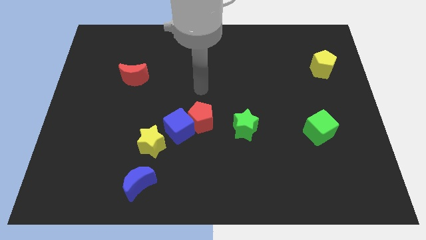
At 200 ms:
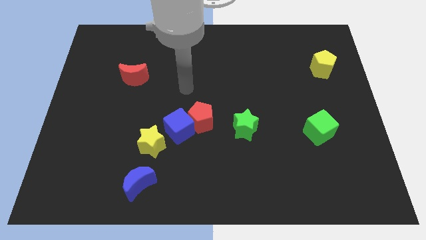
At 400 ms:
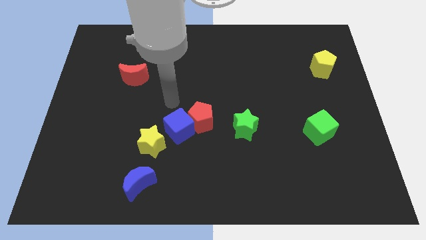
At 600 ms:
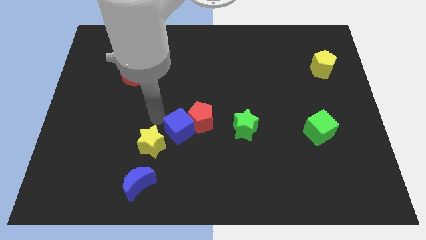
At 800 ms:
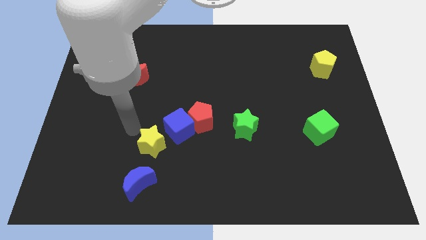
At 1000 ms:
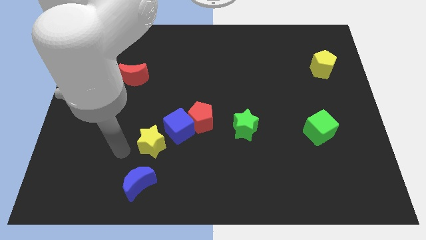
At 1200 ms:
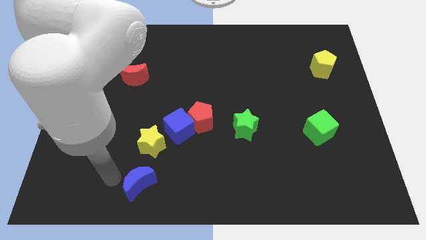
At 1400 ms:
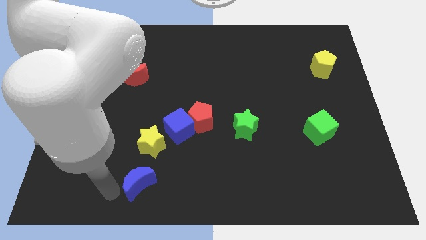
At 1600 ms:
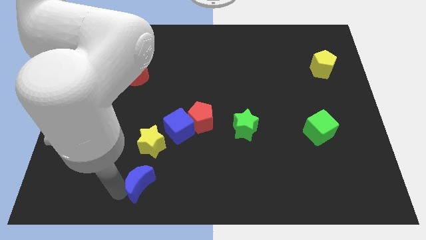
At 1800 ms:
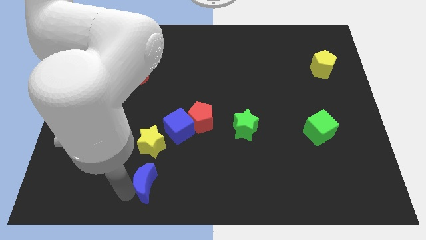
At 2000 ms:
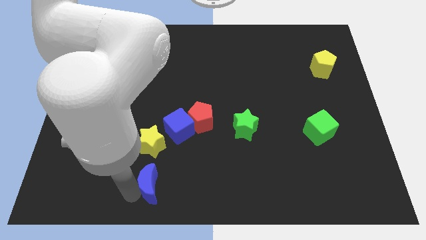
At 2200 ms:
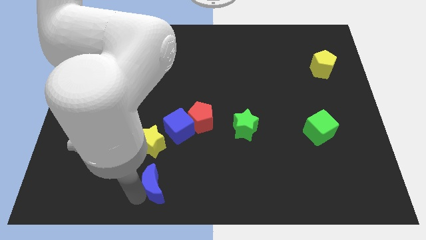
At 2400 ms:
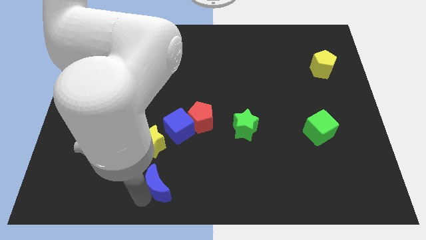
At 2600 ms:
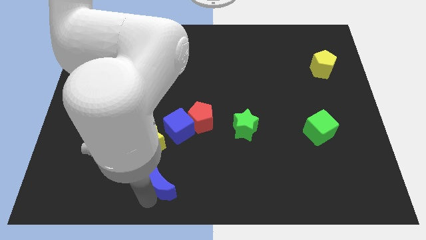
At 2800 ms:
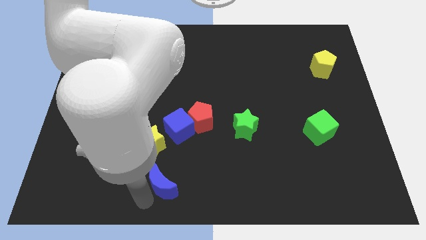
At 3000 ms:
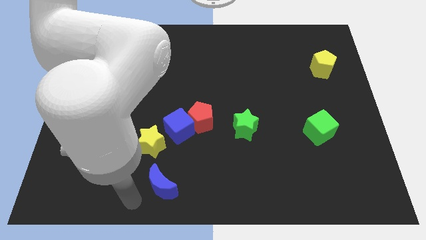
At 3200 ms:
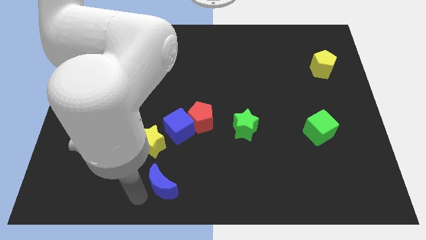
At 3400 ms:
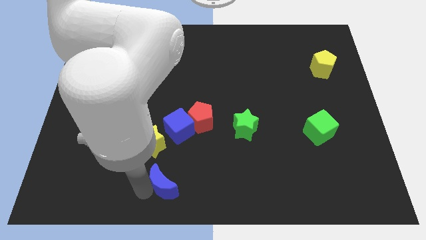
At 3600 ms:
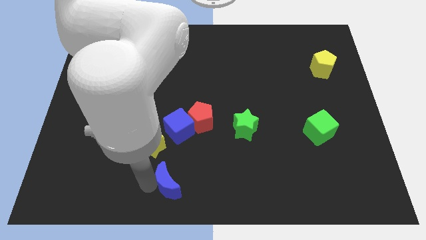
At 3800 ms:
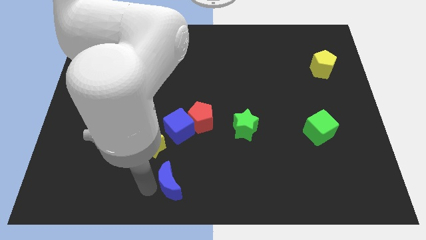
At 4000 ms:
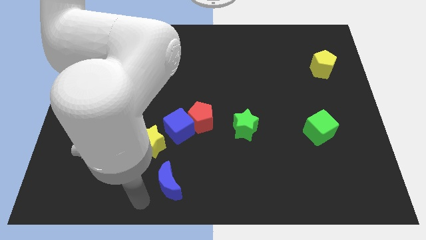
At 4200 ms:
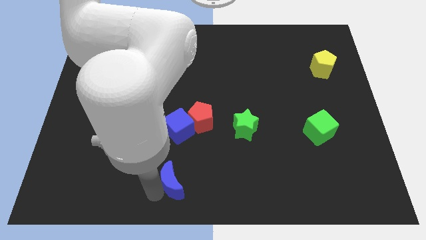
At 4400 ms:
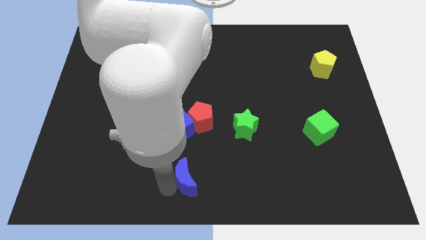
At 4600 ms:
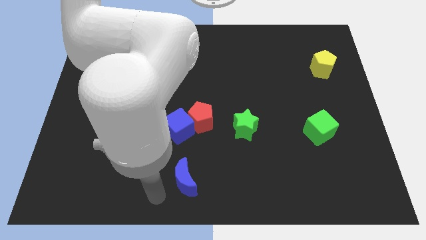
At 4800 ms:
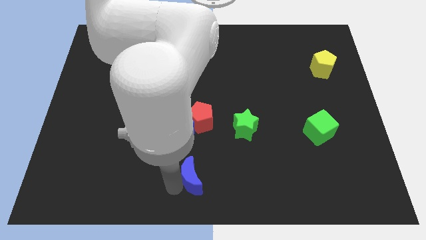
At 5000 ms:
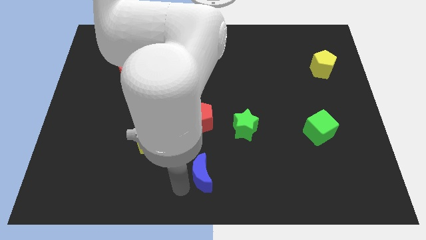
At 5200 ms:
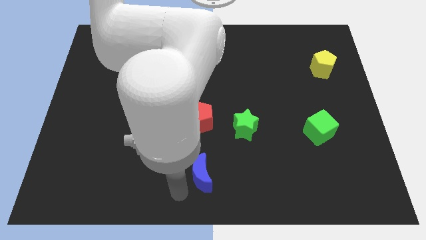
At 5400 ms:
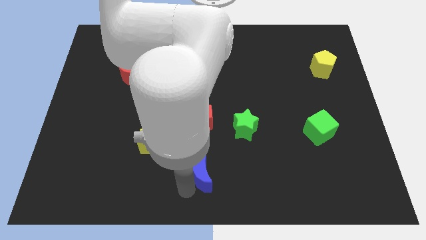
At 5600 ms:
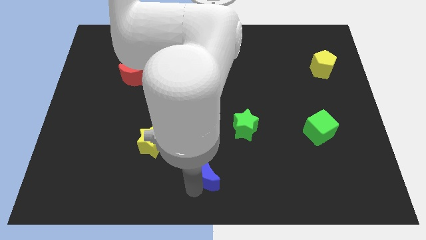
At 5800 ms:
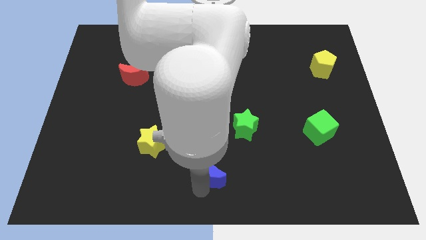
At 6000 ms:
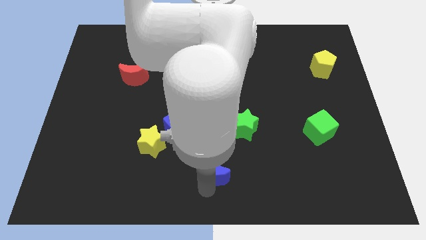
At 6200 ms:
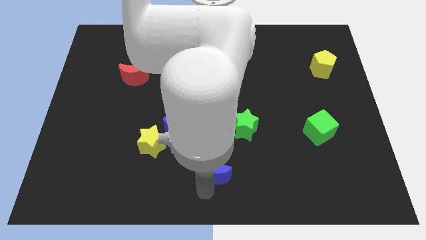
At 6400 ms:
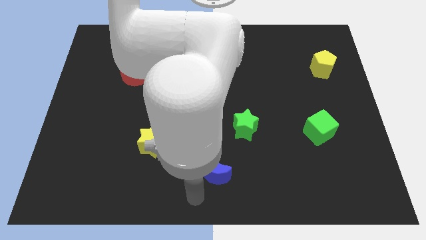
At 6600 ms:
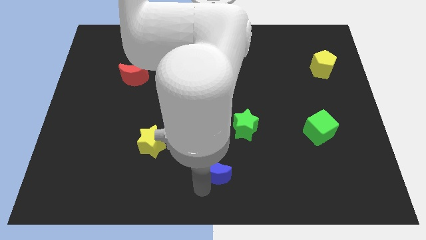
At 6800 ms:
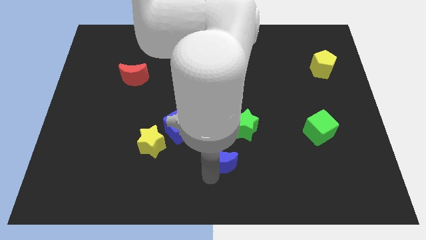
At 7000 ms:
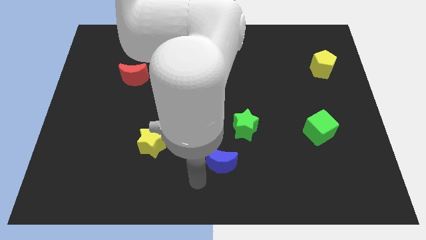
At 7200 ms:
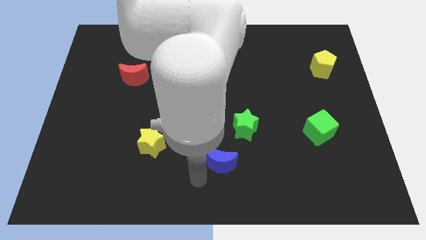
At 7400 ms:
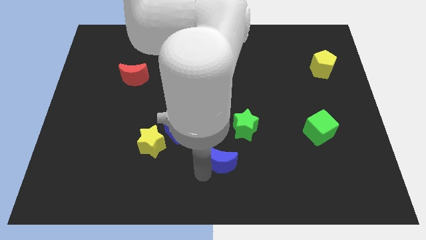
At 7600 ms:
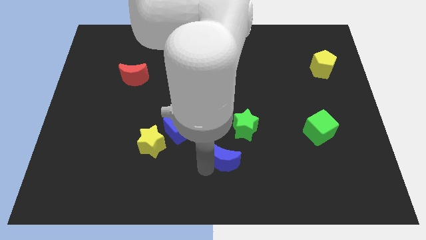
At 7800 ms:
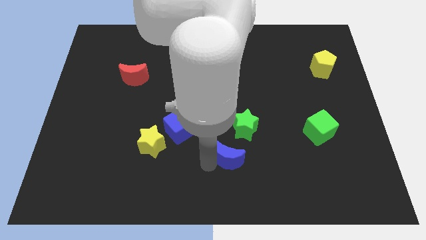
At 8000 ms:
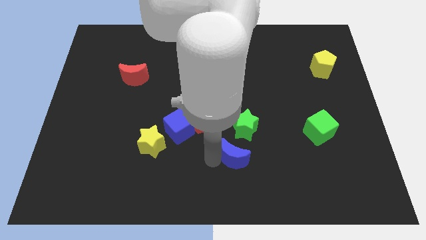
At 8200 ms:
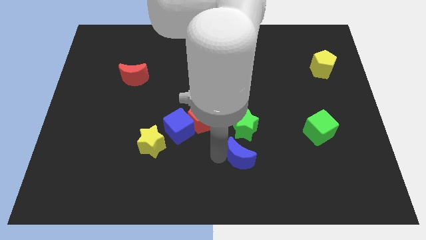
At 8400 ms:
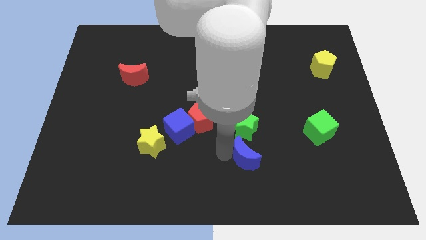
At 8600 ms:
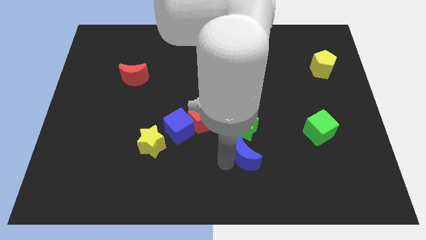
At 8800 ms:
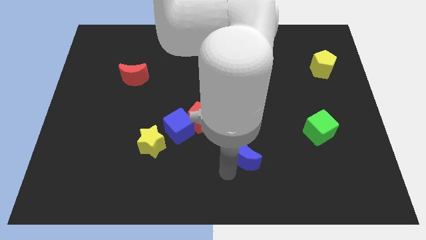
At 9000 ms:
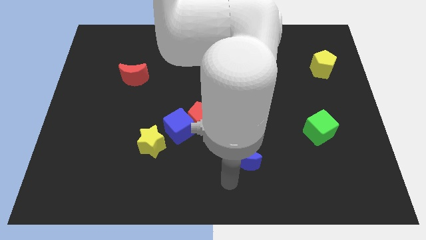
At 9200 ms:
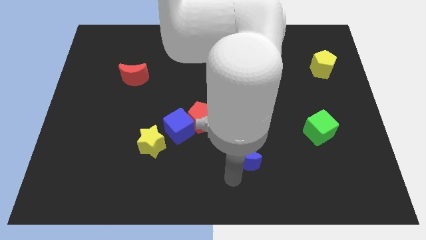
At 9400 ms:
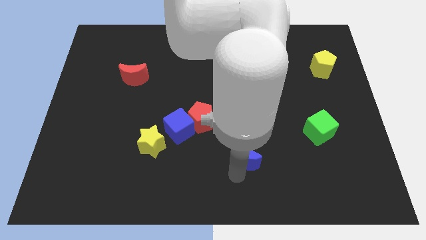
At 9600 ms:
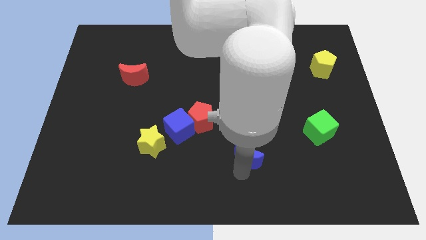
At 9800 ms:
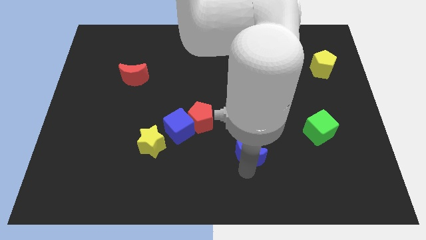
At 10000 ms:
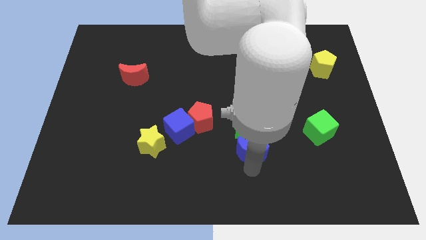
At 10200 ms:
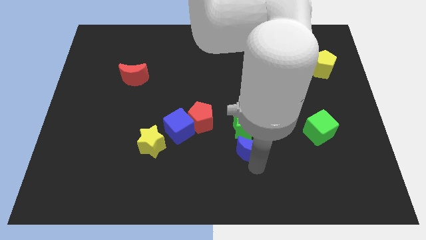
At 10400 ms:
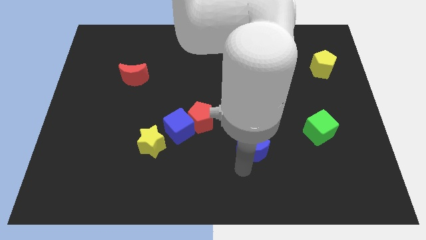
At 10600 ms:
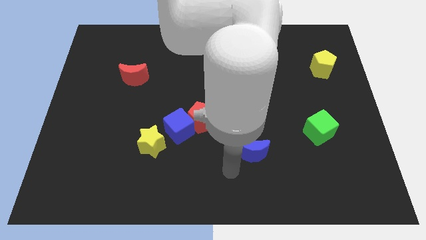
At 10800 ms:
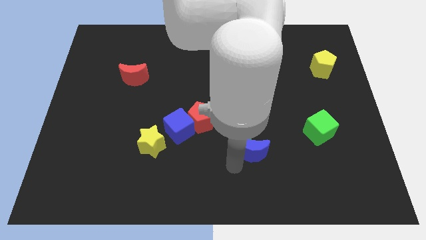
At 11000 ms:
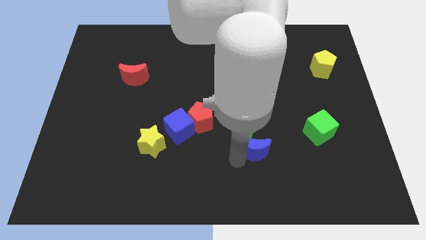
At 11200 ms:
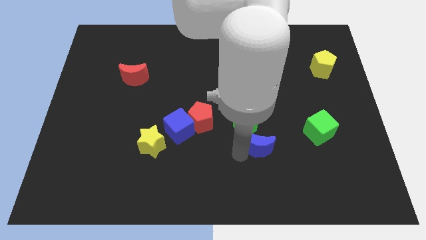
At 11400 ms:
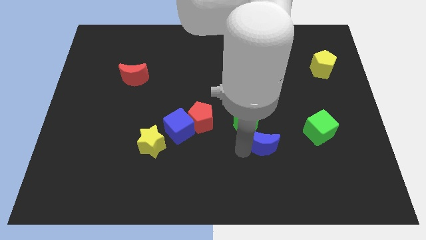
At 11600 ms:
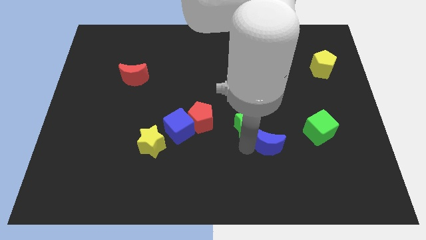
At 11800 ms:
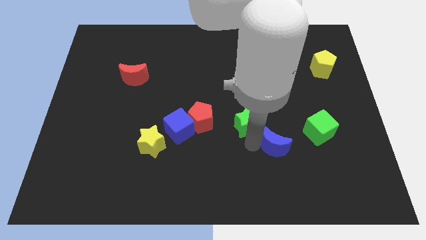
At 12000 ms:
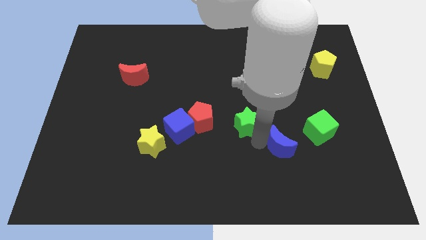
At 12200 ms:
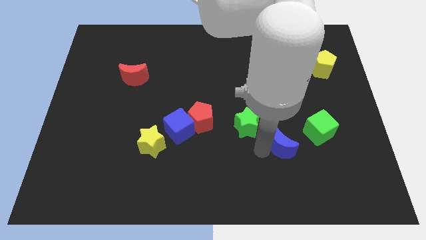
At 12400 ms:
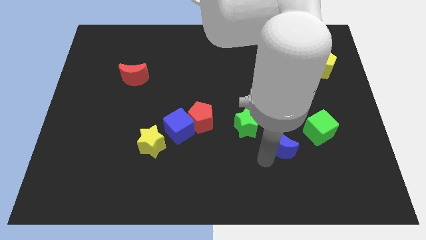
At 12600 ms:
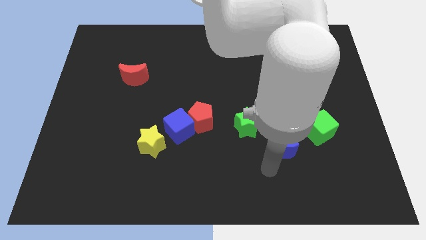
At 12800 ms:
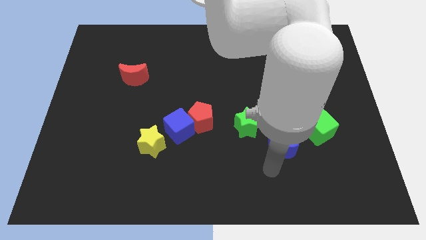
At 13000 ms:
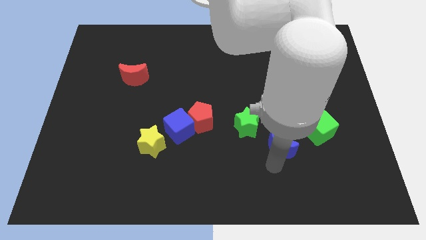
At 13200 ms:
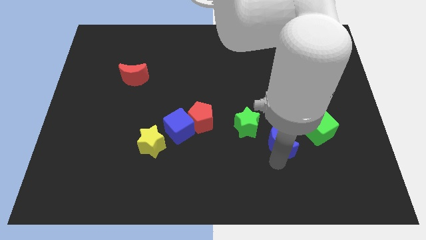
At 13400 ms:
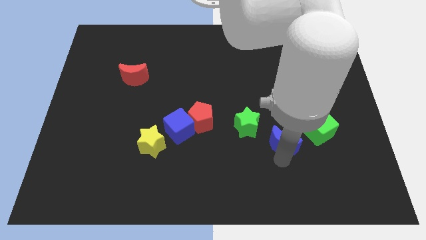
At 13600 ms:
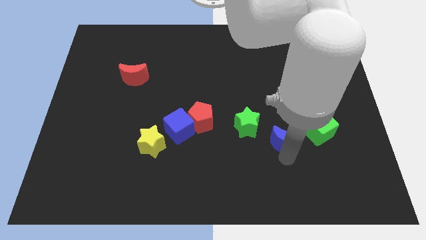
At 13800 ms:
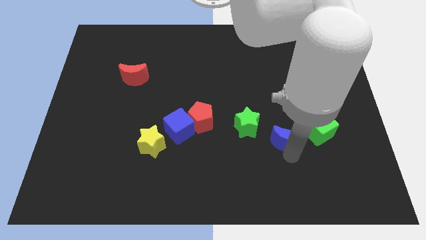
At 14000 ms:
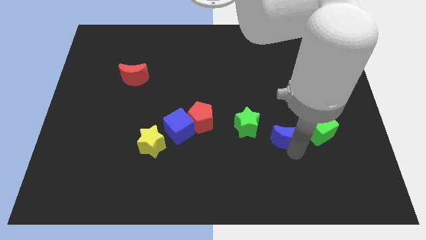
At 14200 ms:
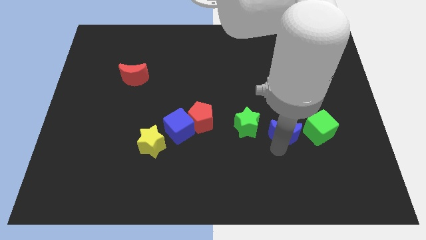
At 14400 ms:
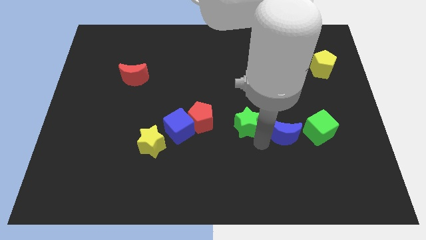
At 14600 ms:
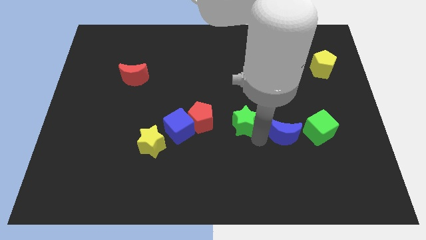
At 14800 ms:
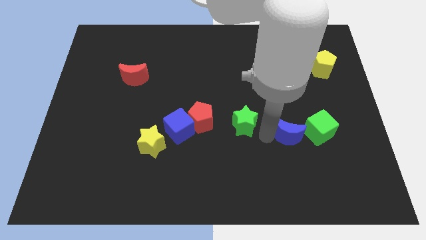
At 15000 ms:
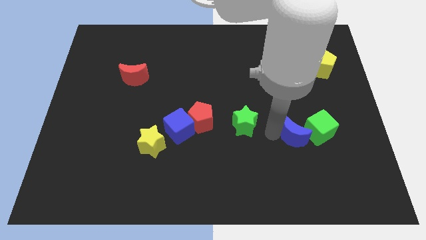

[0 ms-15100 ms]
put the blue moon next to the green cube
